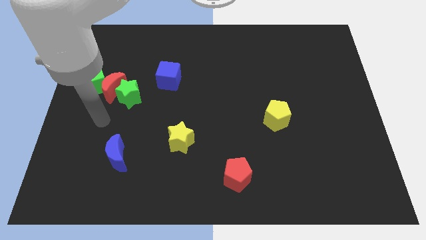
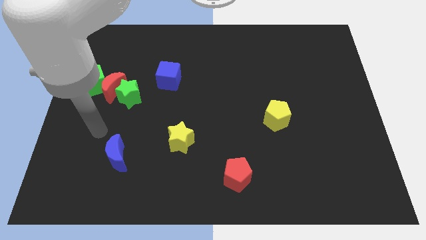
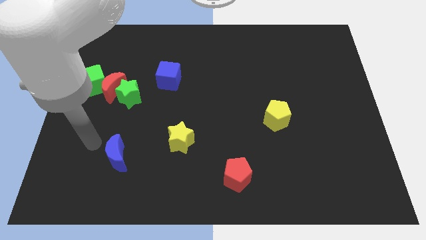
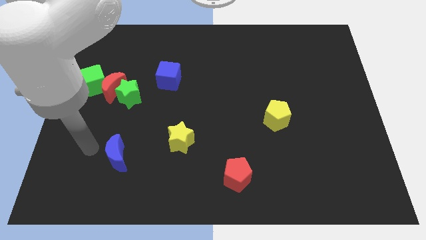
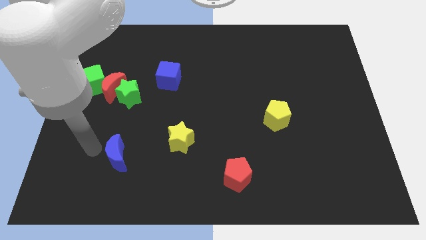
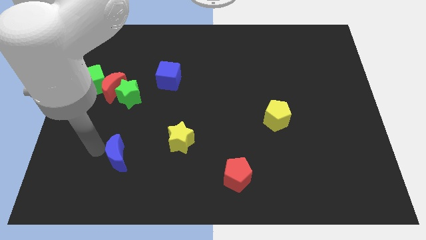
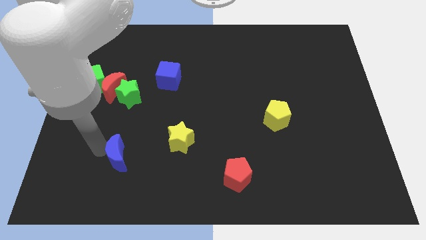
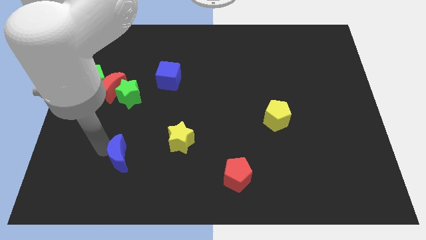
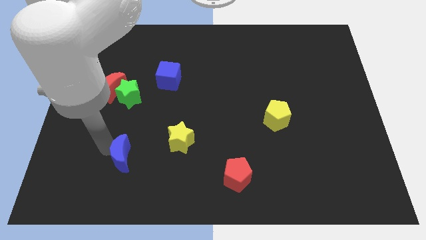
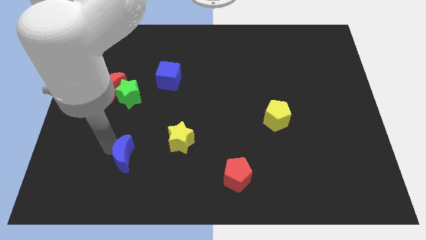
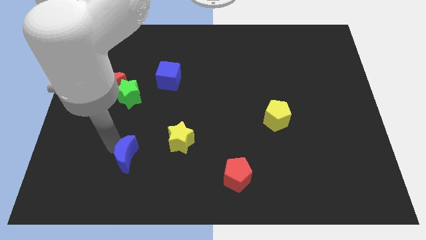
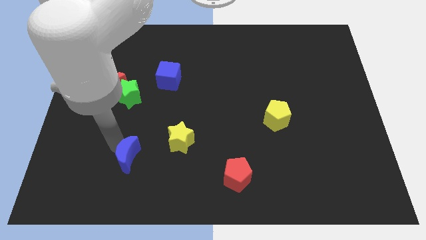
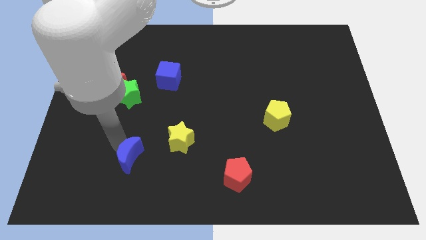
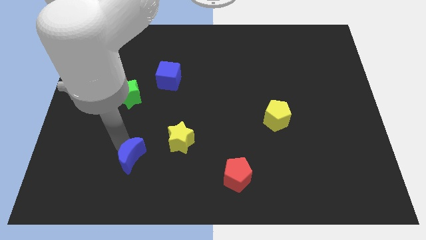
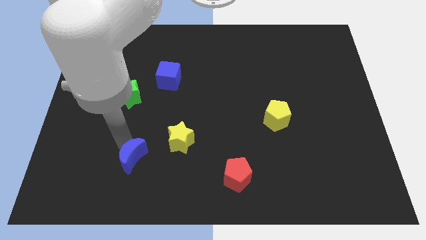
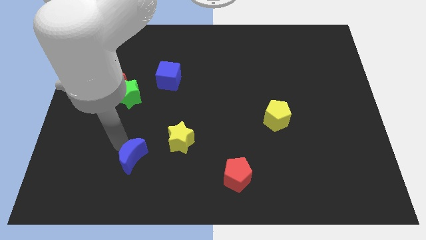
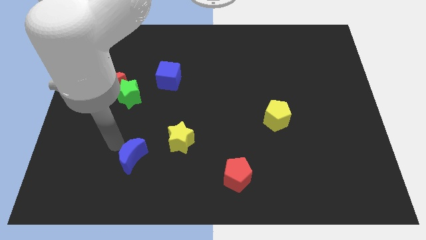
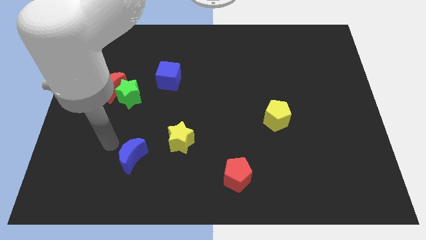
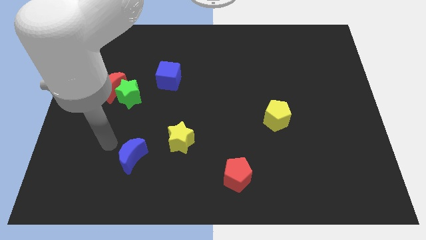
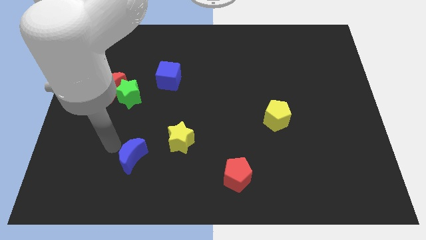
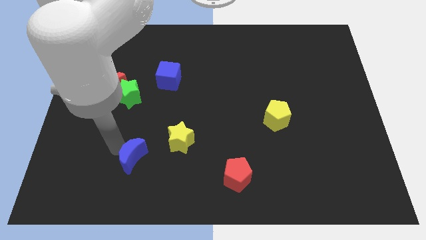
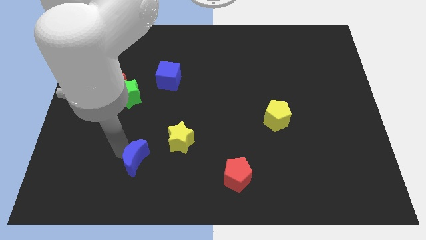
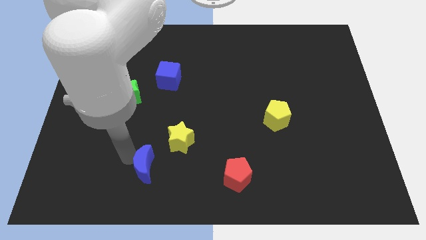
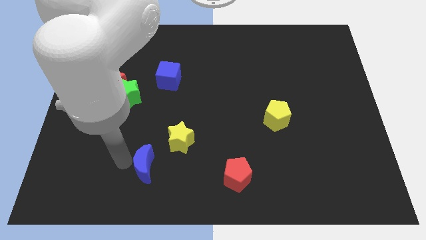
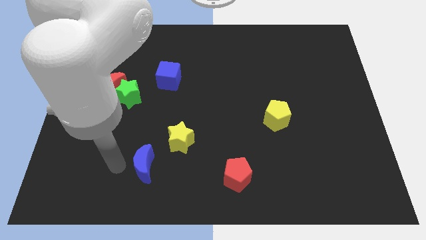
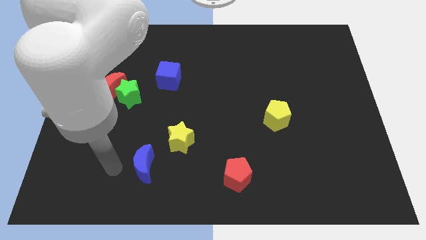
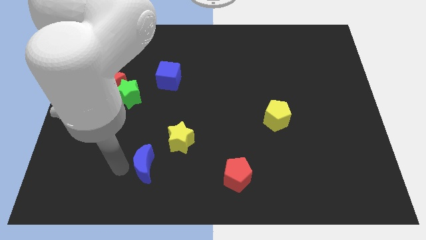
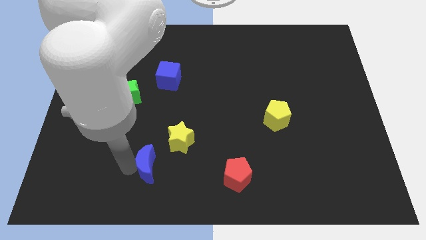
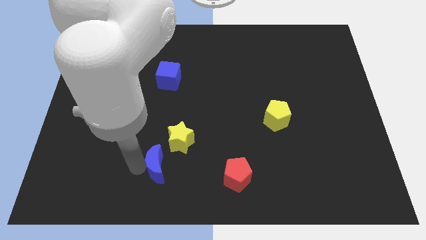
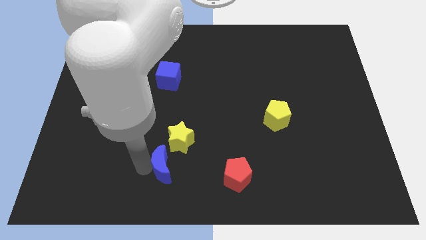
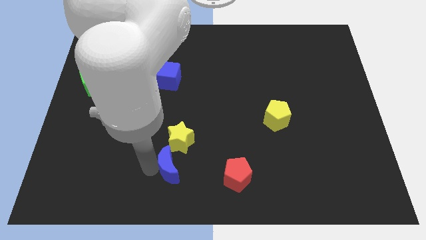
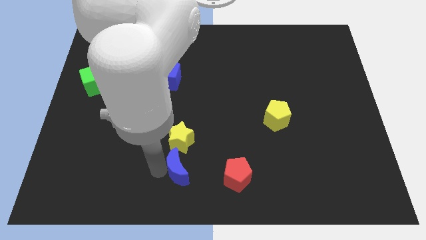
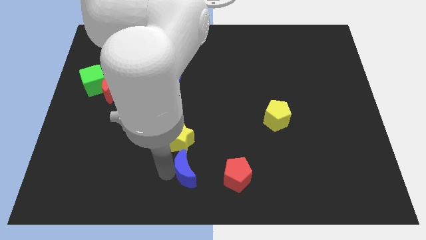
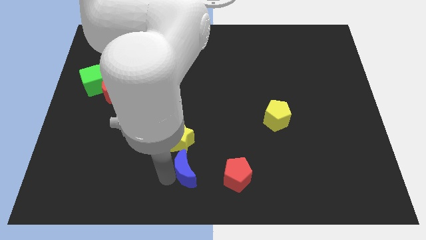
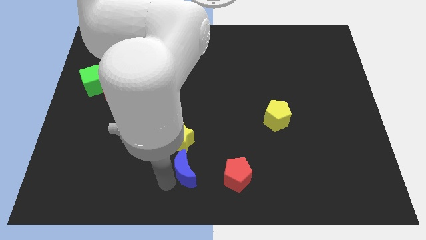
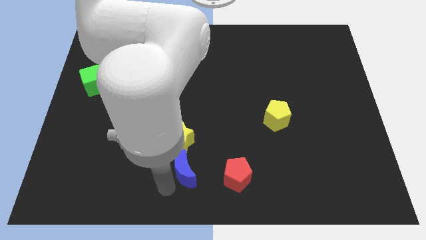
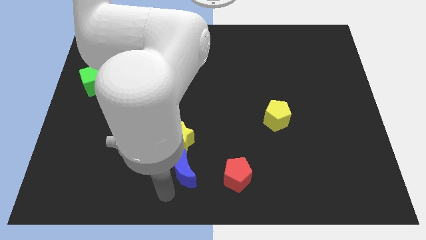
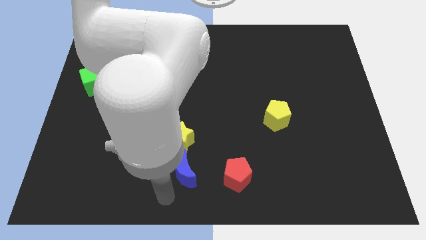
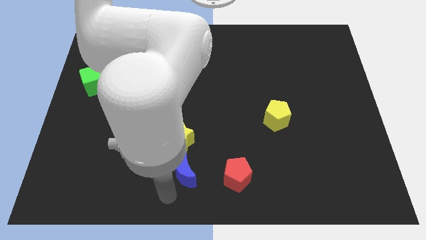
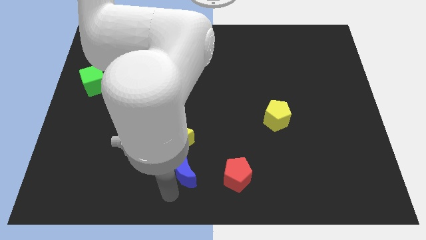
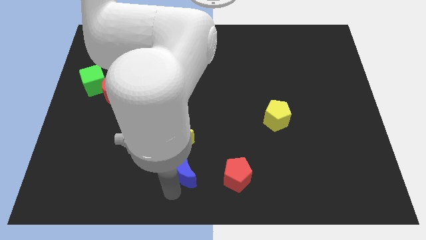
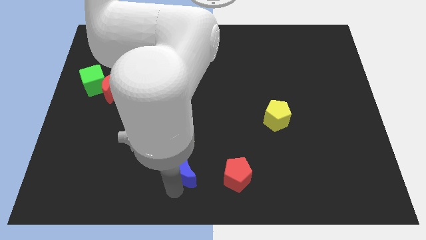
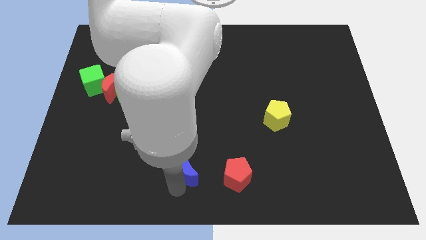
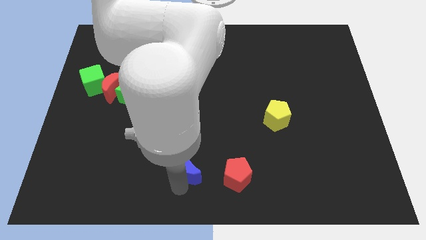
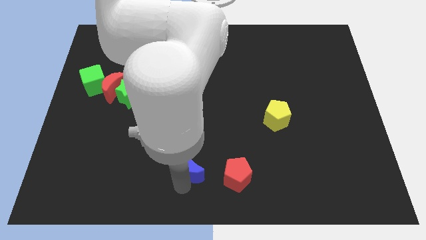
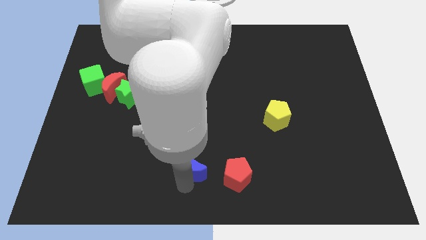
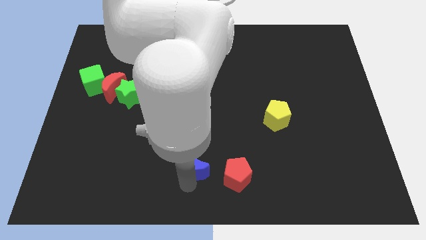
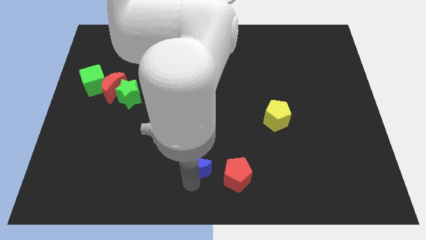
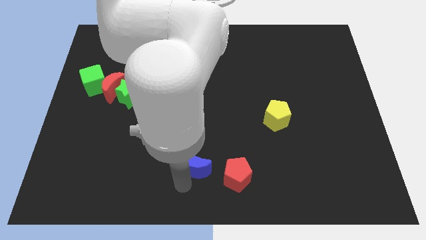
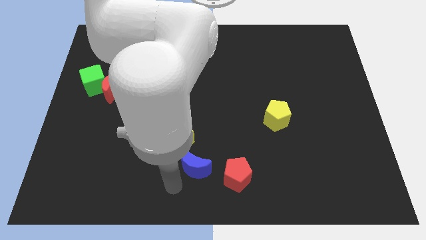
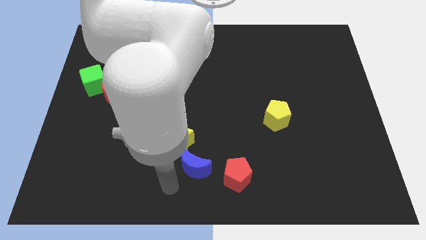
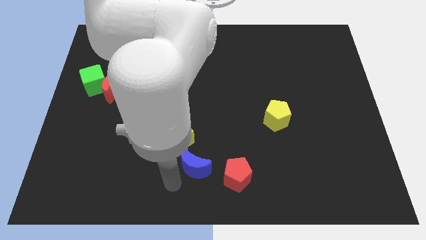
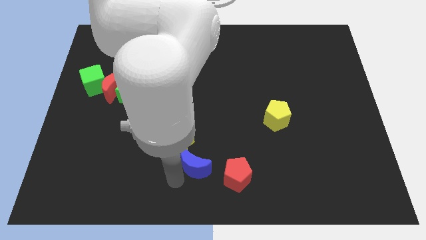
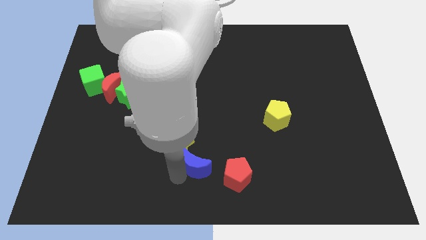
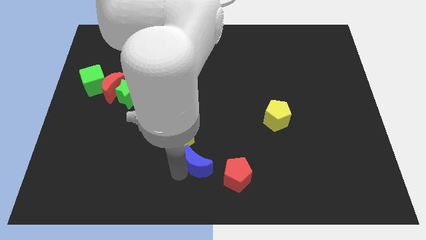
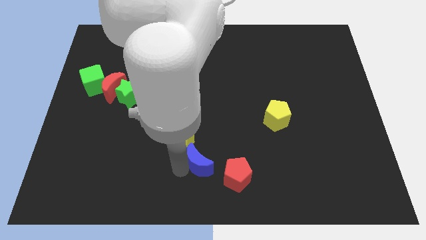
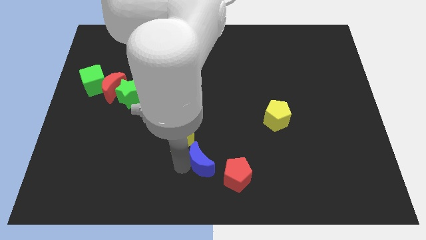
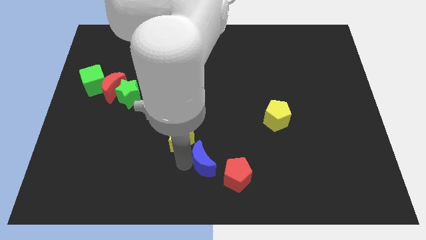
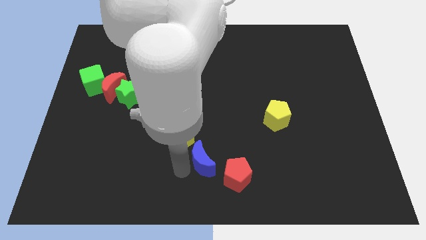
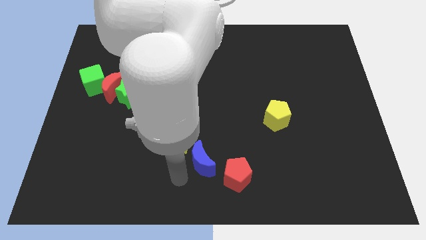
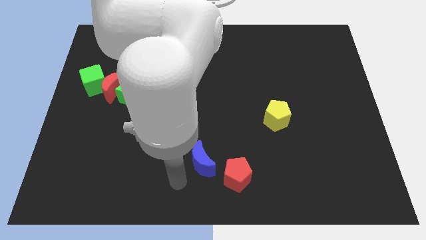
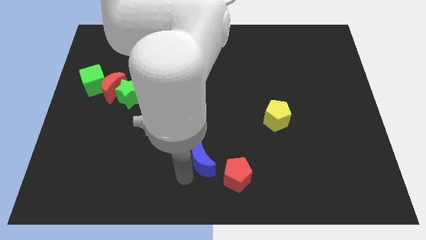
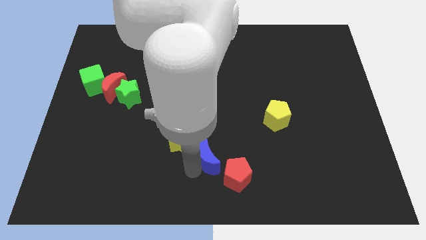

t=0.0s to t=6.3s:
move the blue moon to the right of the yellow star

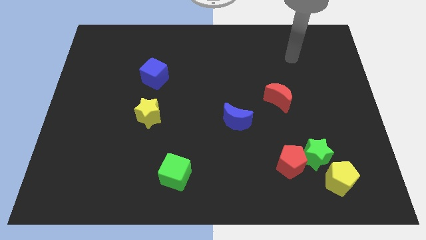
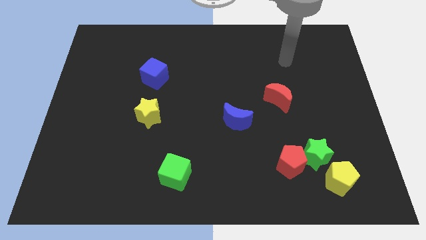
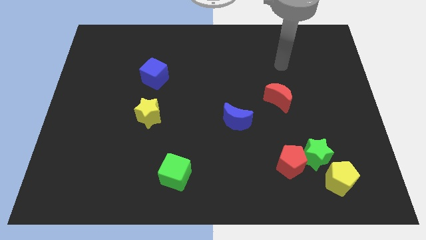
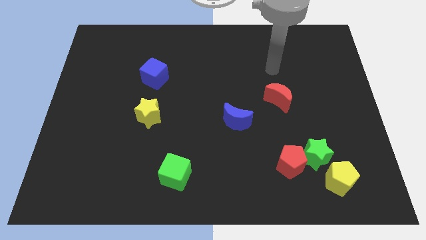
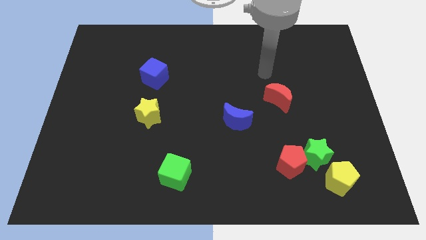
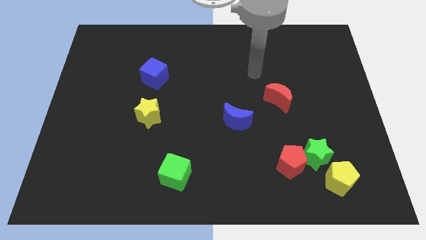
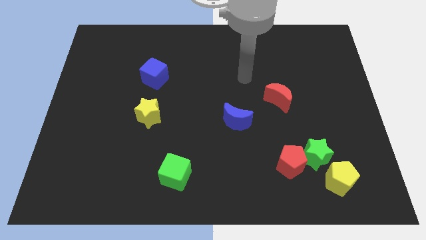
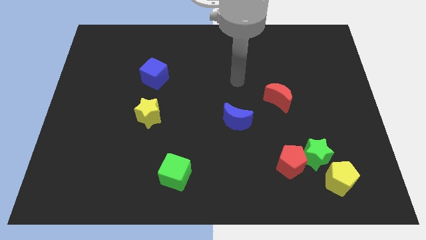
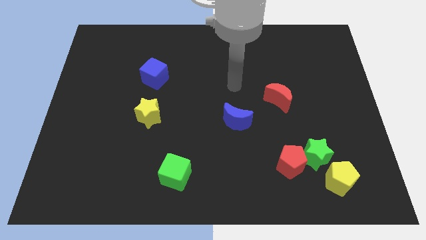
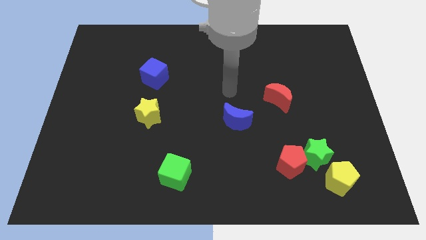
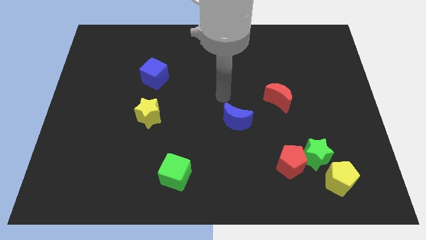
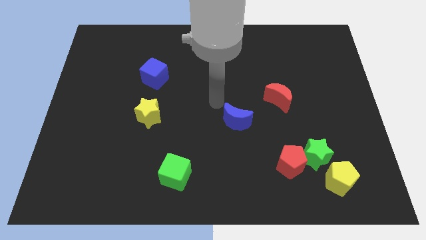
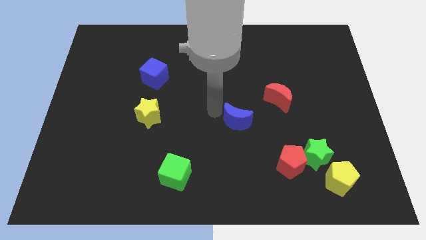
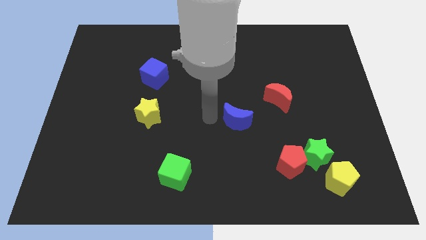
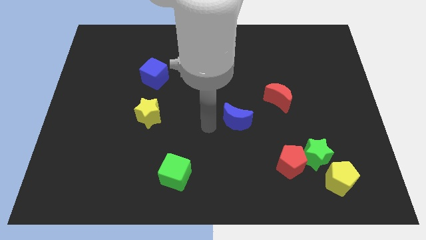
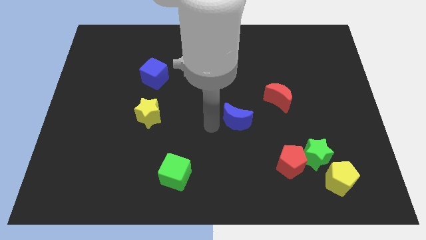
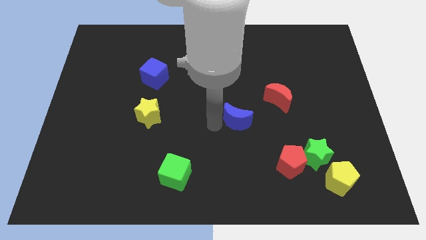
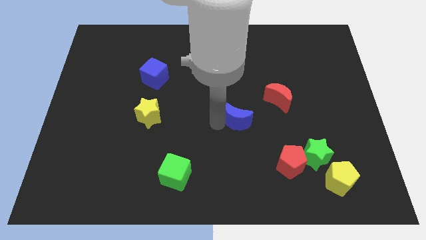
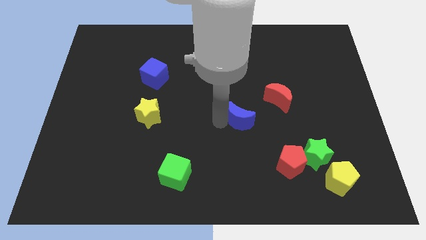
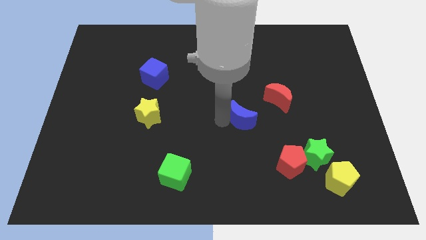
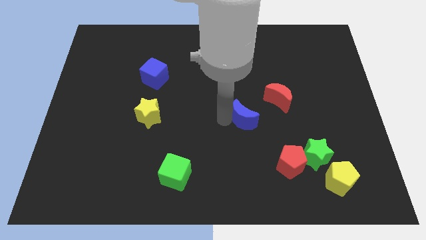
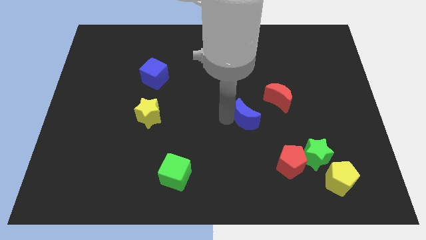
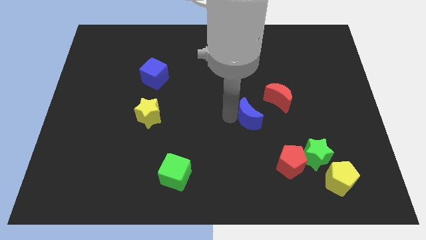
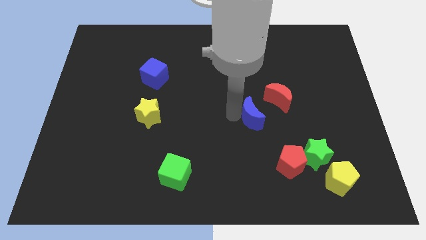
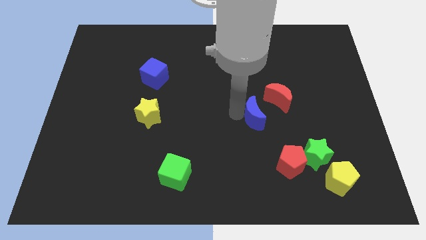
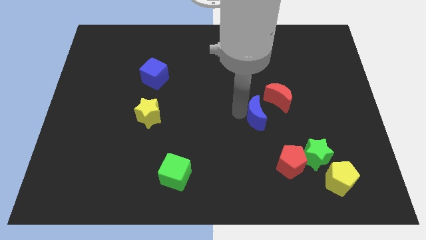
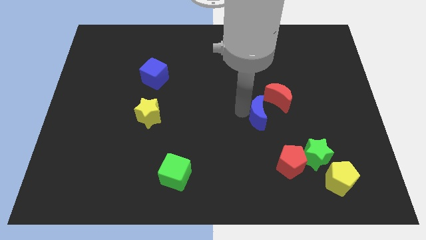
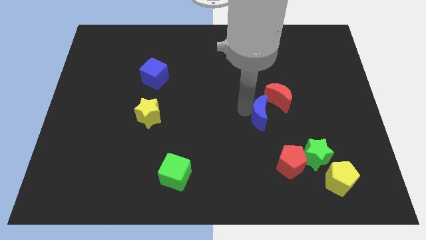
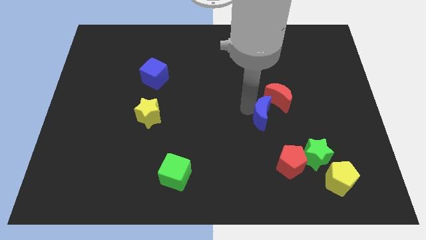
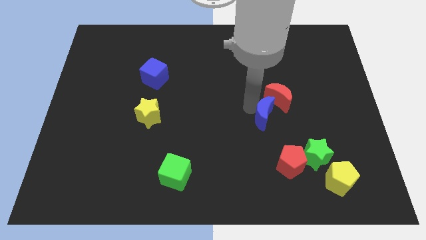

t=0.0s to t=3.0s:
push the blue moon to the top of the red pentagon
